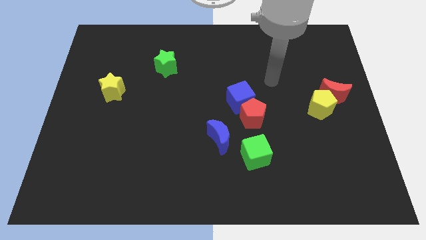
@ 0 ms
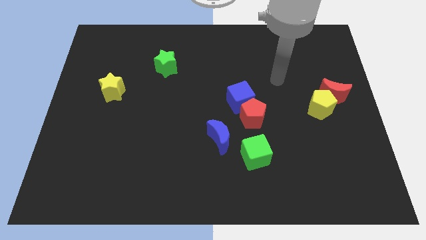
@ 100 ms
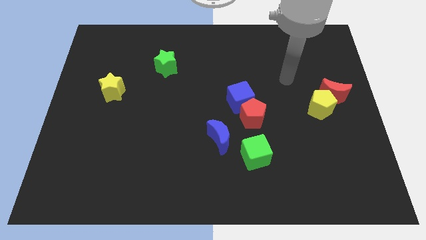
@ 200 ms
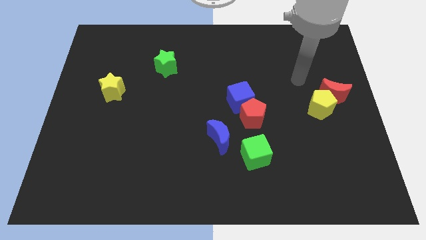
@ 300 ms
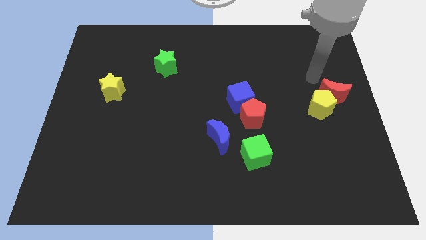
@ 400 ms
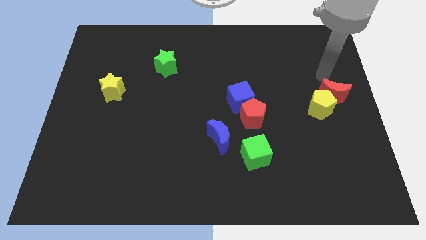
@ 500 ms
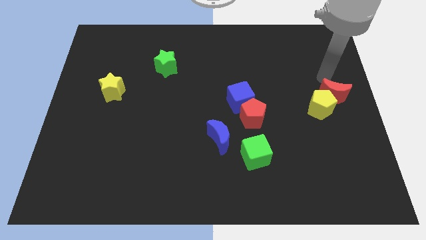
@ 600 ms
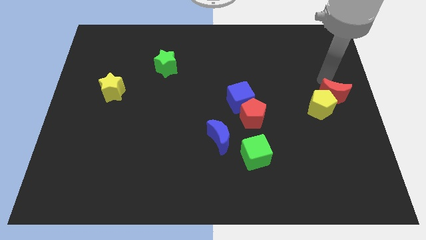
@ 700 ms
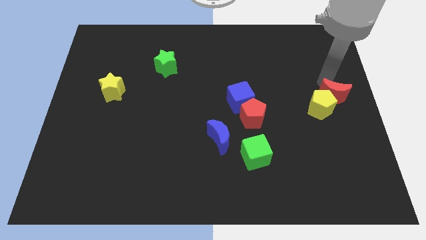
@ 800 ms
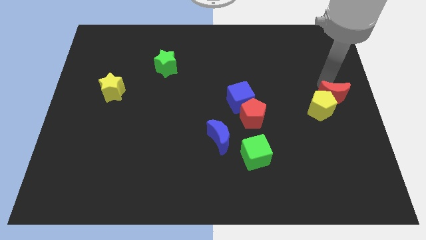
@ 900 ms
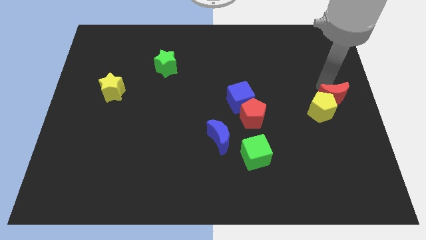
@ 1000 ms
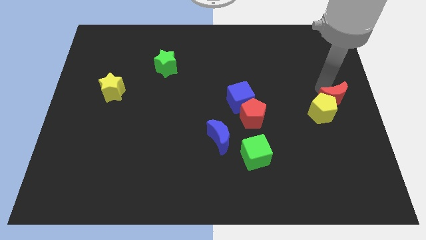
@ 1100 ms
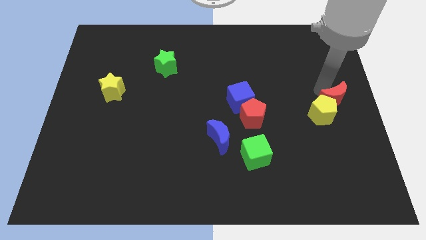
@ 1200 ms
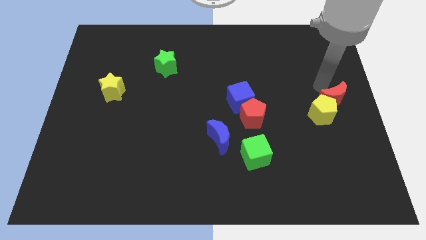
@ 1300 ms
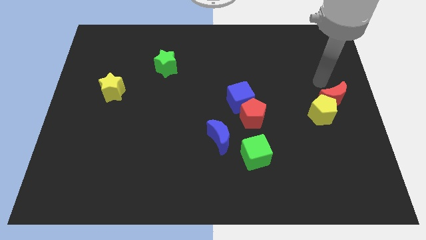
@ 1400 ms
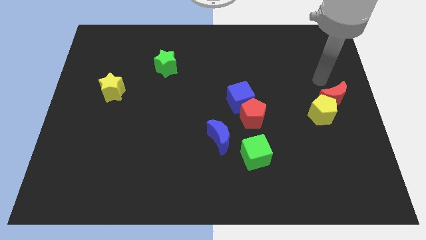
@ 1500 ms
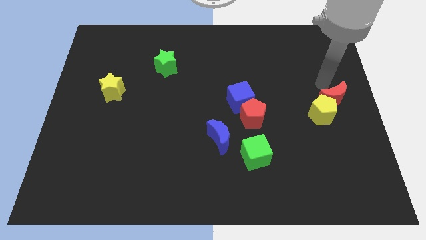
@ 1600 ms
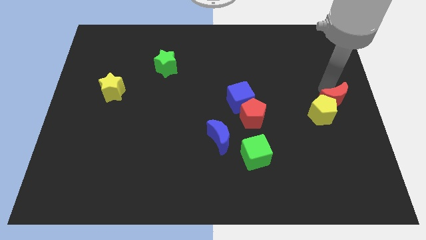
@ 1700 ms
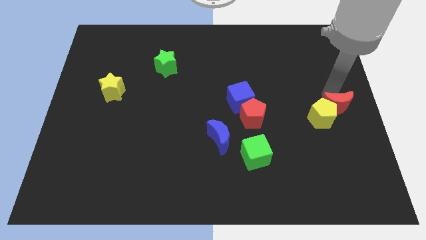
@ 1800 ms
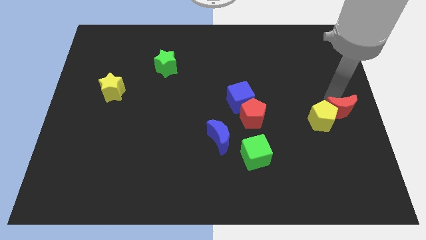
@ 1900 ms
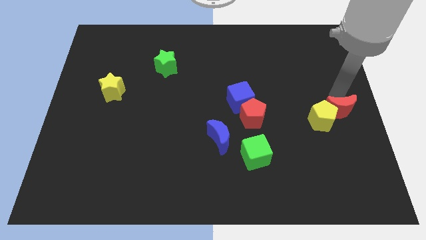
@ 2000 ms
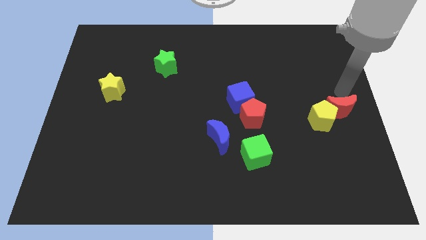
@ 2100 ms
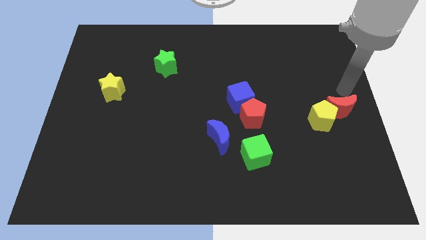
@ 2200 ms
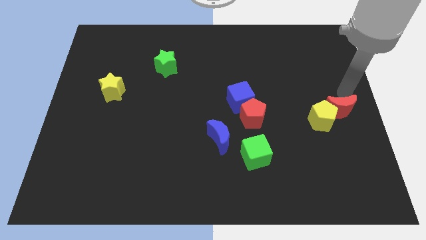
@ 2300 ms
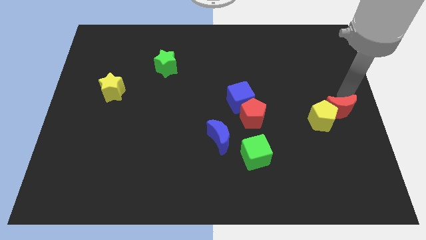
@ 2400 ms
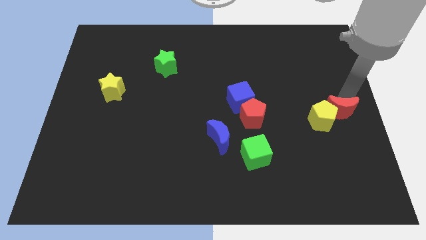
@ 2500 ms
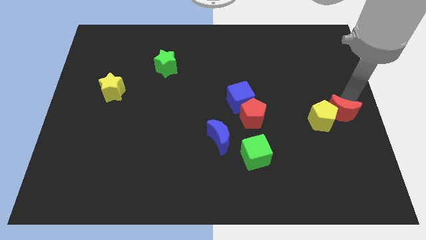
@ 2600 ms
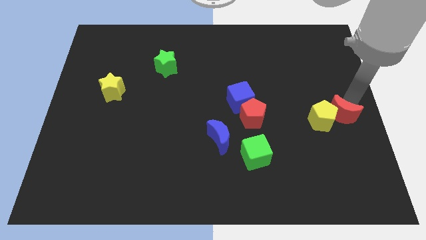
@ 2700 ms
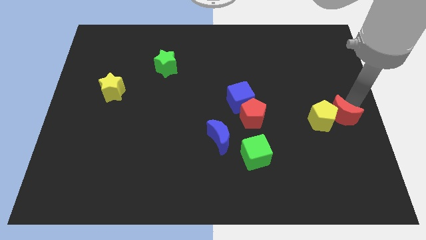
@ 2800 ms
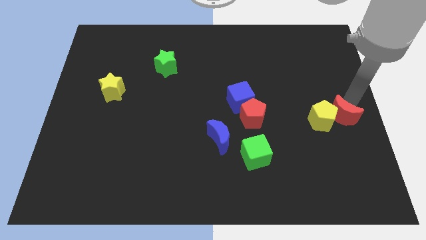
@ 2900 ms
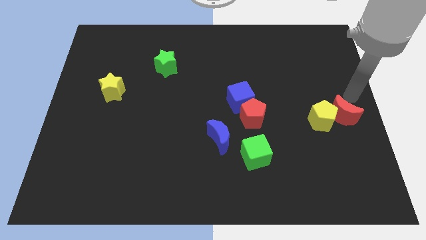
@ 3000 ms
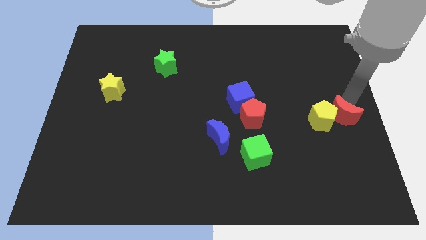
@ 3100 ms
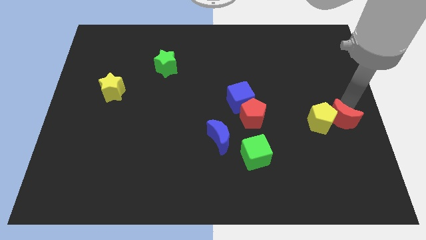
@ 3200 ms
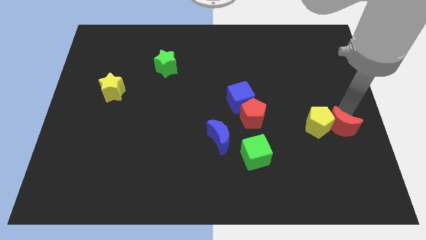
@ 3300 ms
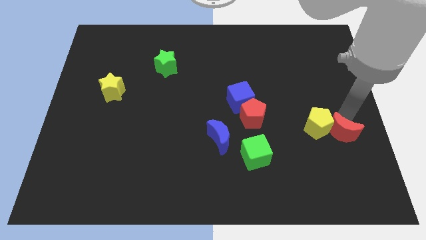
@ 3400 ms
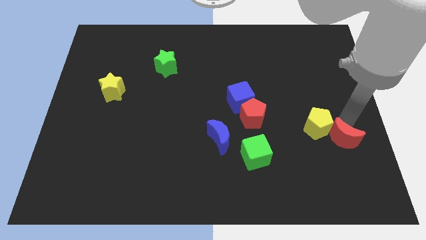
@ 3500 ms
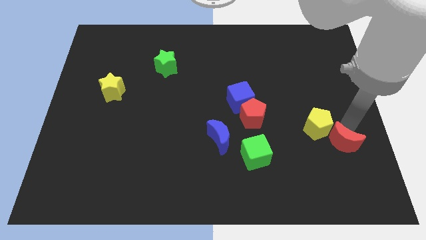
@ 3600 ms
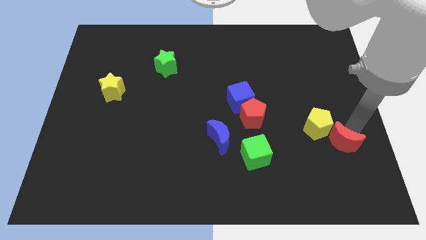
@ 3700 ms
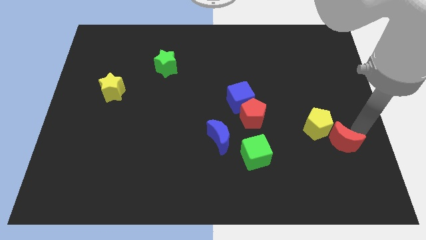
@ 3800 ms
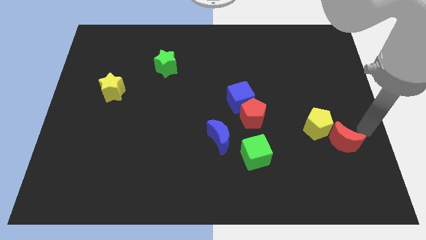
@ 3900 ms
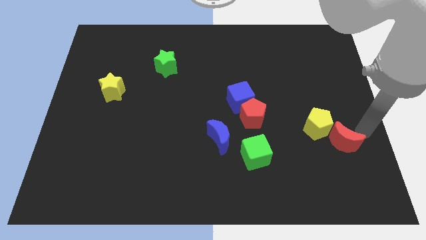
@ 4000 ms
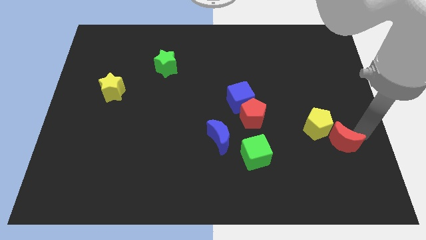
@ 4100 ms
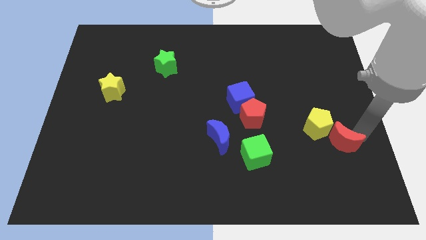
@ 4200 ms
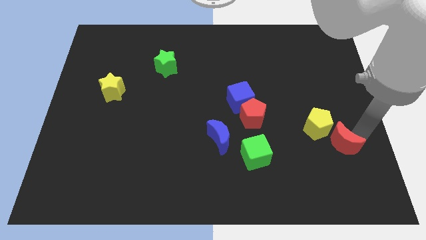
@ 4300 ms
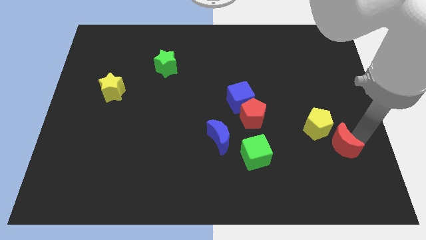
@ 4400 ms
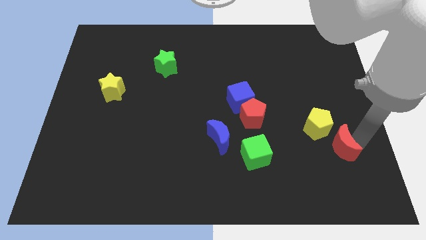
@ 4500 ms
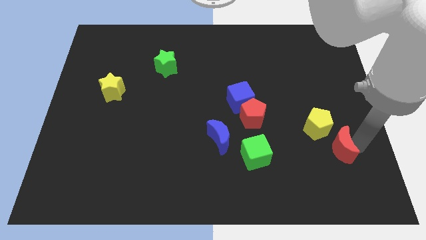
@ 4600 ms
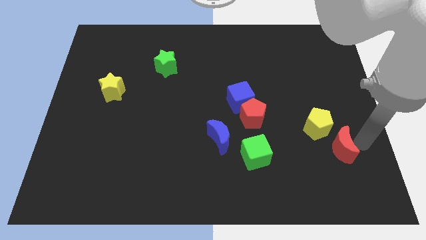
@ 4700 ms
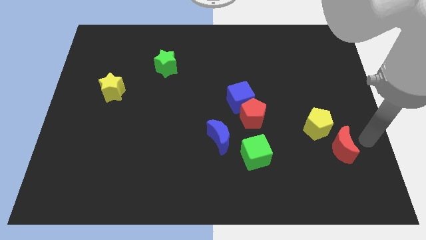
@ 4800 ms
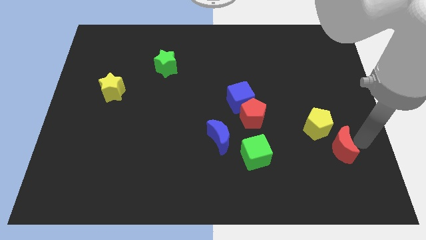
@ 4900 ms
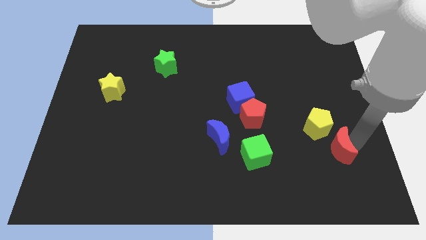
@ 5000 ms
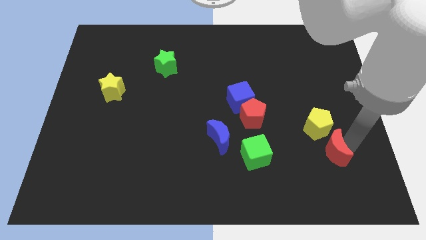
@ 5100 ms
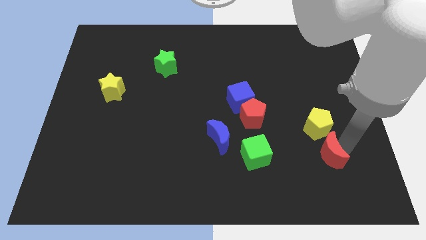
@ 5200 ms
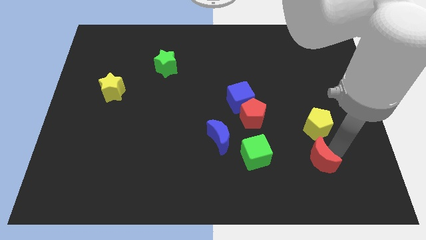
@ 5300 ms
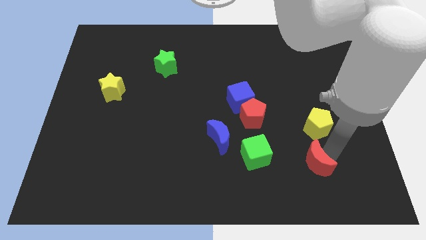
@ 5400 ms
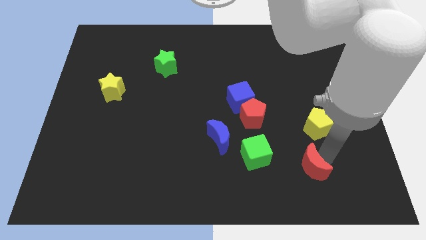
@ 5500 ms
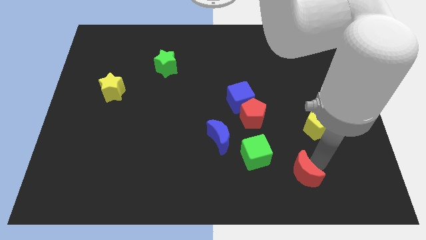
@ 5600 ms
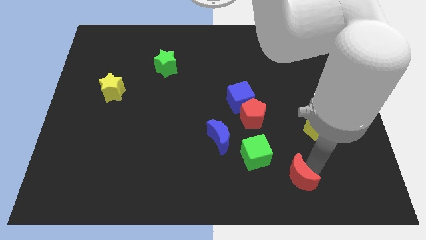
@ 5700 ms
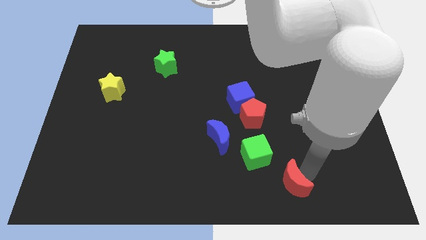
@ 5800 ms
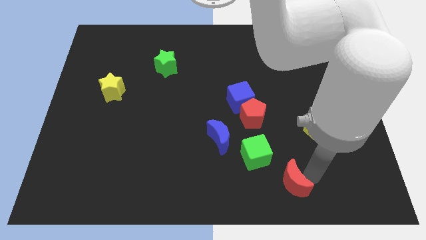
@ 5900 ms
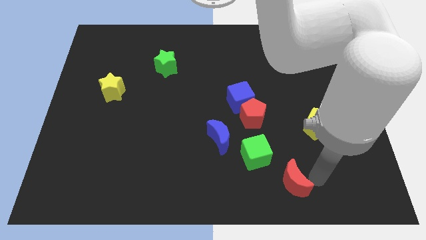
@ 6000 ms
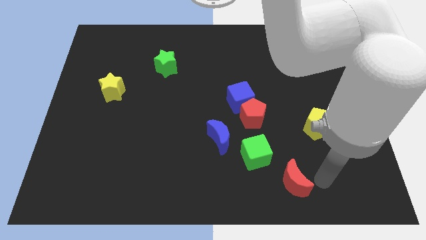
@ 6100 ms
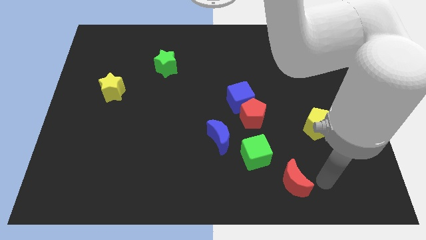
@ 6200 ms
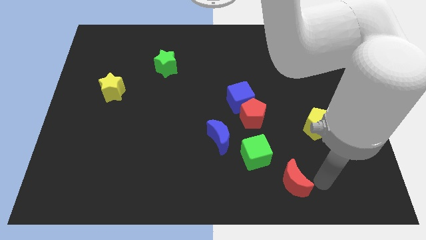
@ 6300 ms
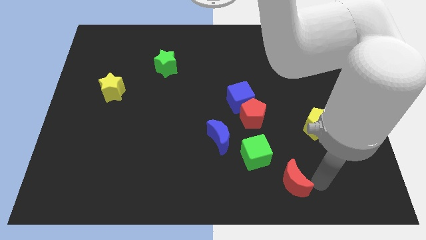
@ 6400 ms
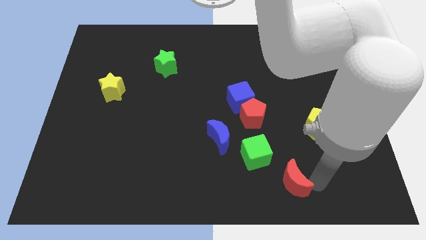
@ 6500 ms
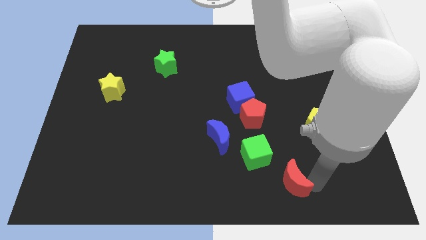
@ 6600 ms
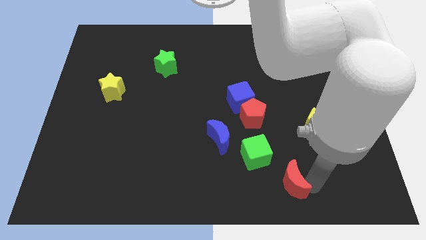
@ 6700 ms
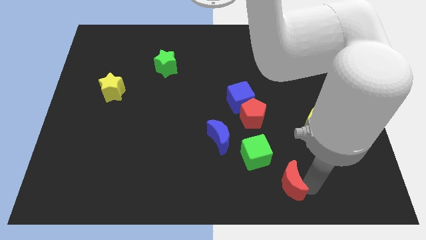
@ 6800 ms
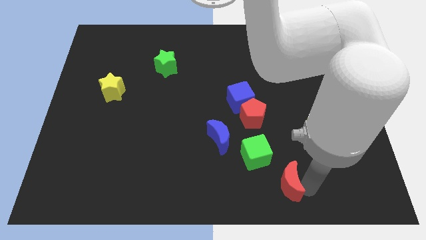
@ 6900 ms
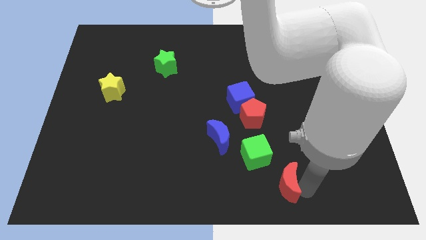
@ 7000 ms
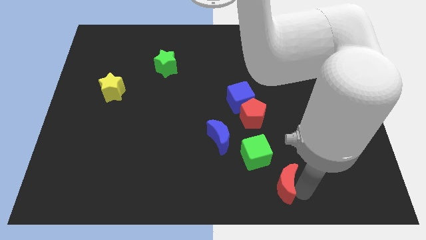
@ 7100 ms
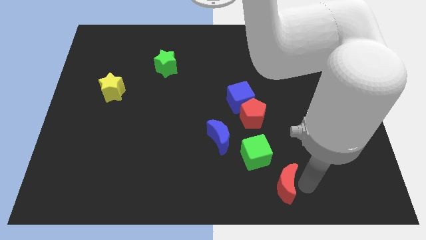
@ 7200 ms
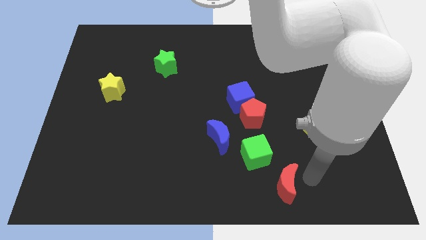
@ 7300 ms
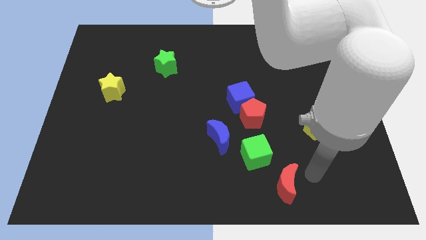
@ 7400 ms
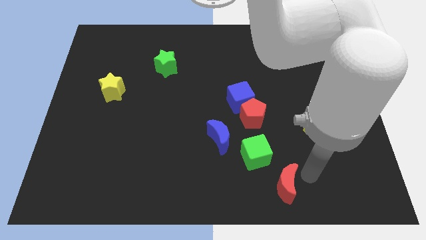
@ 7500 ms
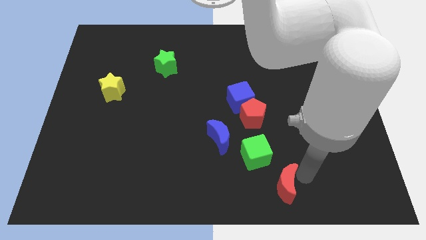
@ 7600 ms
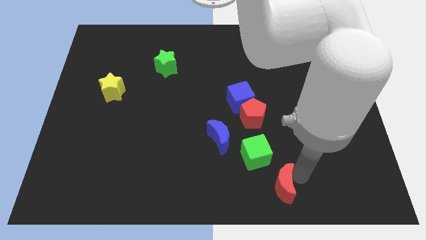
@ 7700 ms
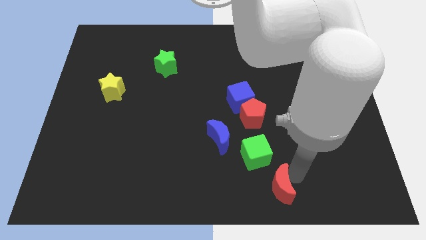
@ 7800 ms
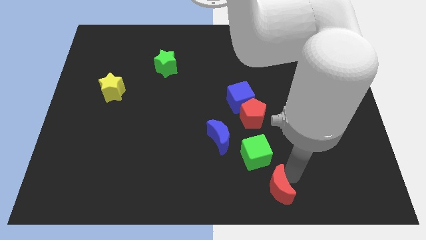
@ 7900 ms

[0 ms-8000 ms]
move the red moon to the bottom
